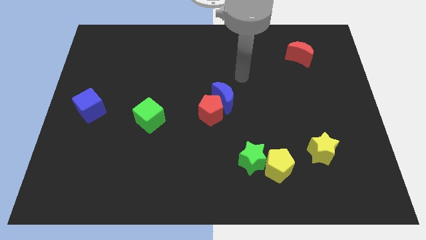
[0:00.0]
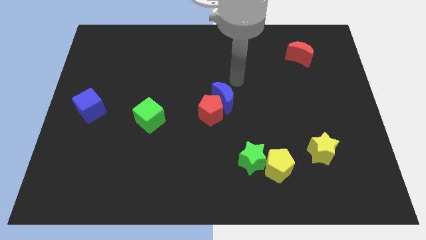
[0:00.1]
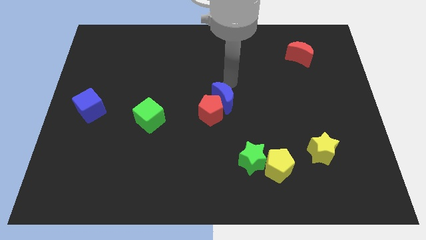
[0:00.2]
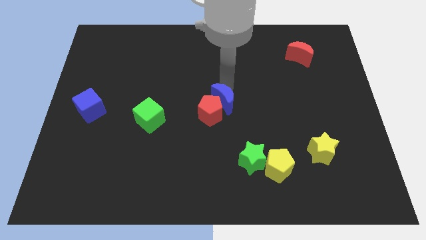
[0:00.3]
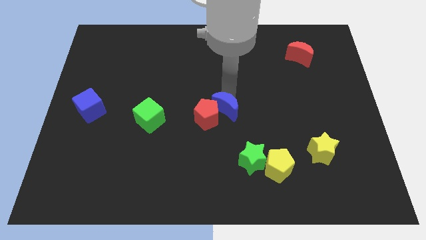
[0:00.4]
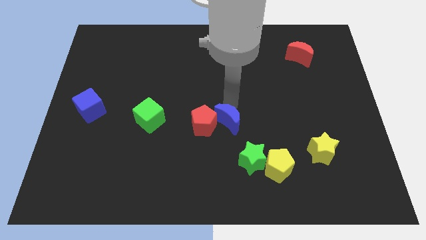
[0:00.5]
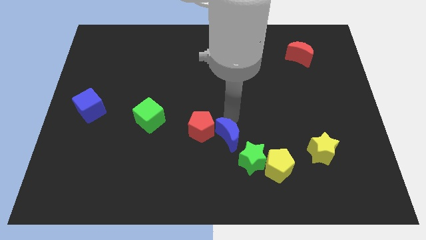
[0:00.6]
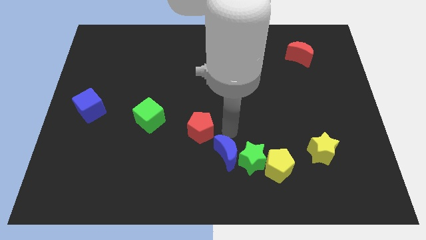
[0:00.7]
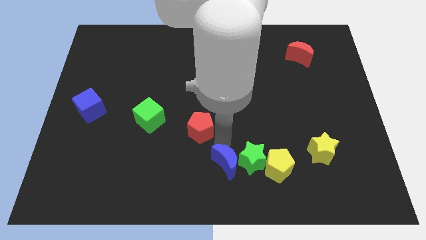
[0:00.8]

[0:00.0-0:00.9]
pull the red pentagon apart from the blue moon

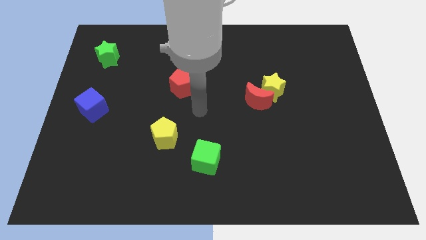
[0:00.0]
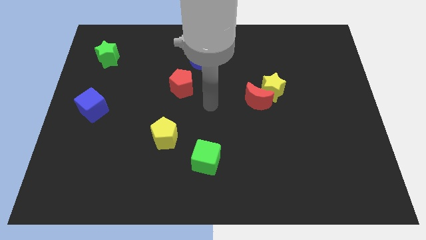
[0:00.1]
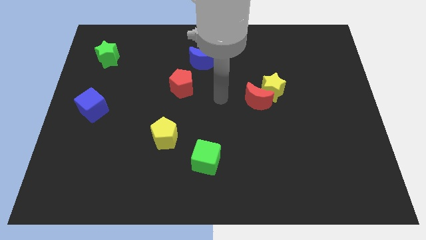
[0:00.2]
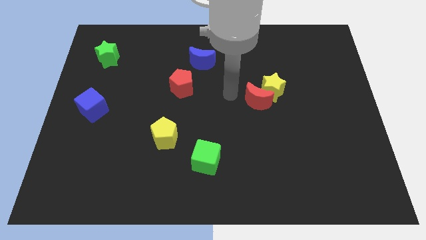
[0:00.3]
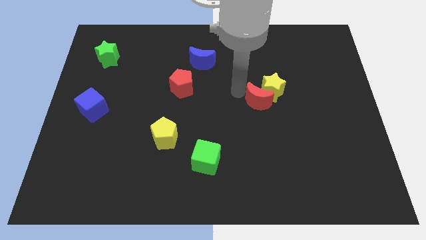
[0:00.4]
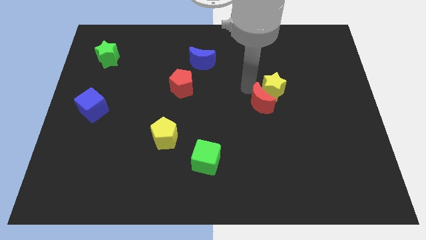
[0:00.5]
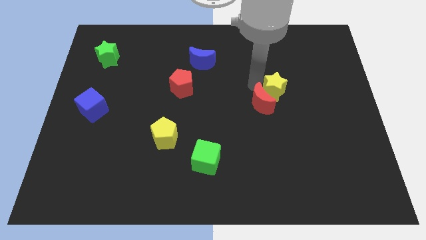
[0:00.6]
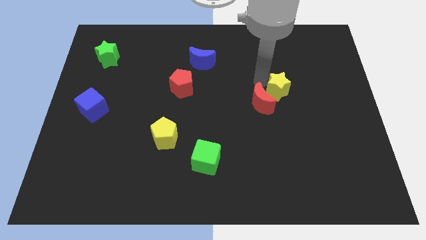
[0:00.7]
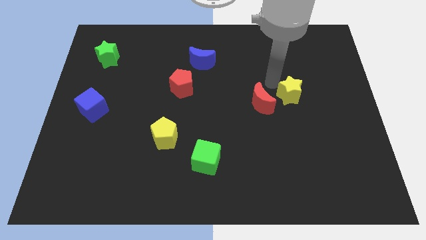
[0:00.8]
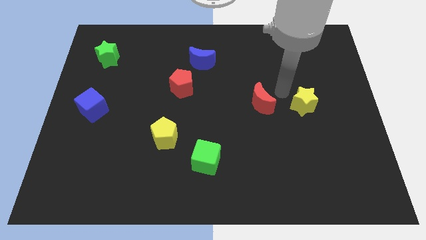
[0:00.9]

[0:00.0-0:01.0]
pull the red moon apart from the yellow star

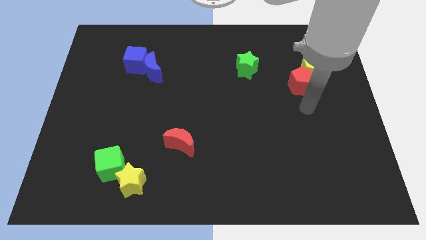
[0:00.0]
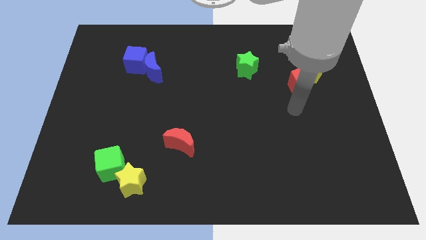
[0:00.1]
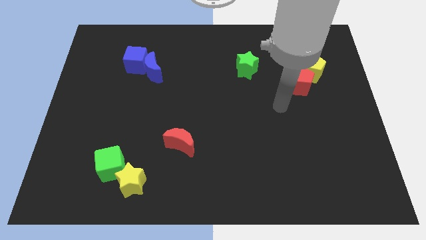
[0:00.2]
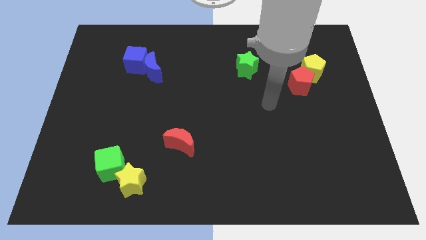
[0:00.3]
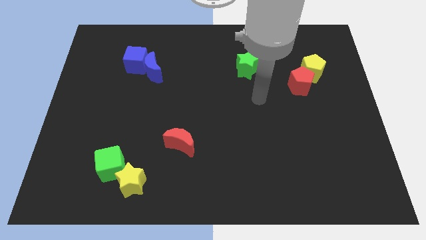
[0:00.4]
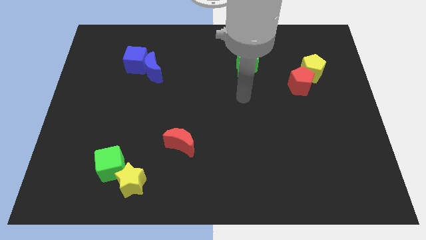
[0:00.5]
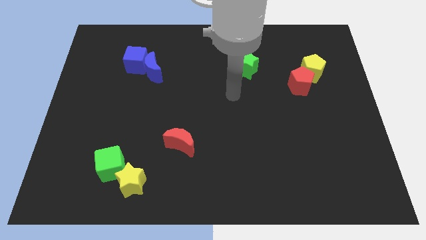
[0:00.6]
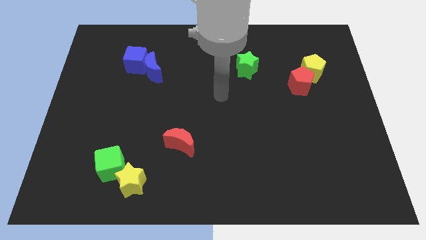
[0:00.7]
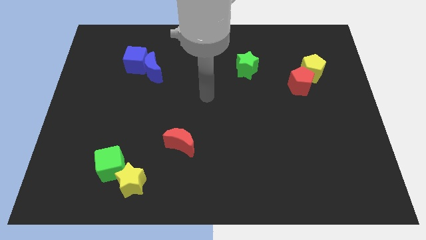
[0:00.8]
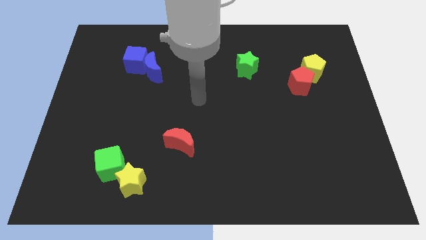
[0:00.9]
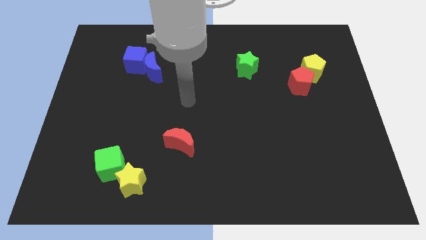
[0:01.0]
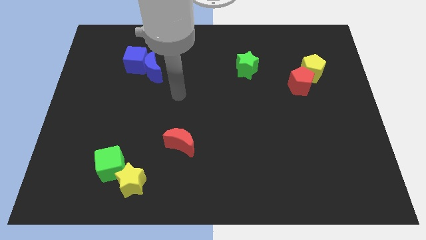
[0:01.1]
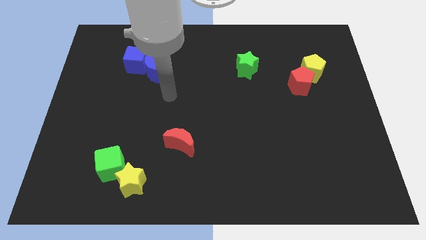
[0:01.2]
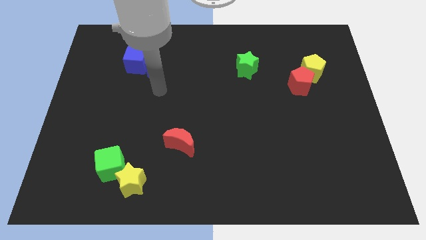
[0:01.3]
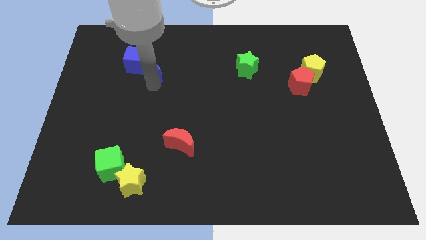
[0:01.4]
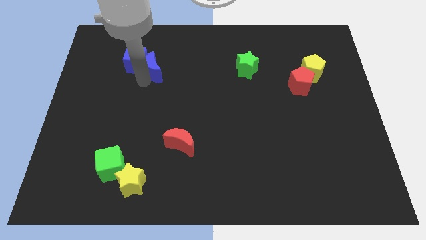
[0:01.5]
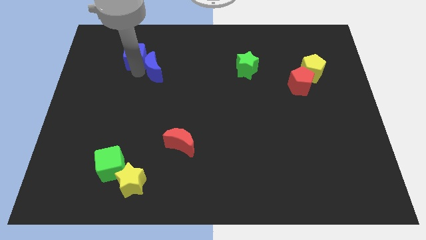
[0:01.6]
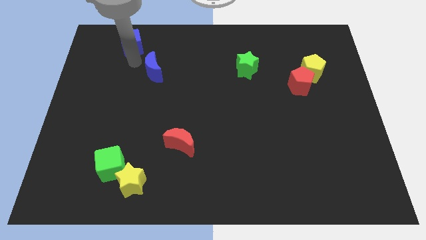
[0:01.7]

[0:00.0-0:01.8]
pull the blue moon apart from the blue cube

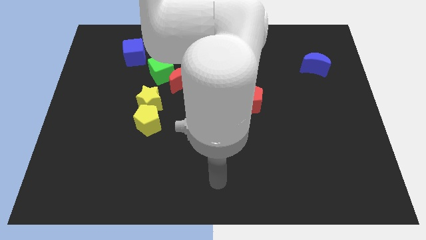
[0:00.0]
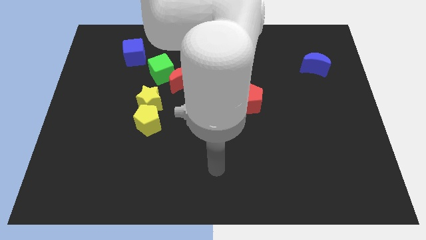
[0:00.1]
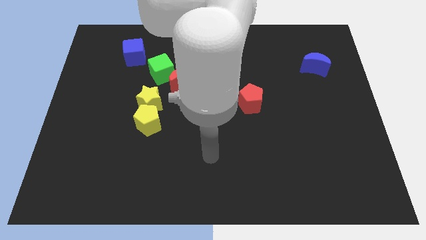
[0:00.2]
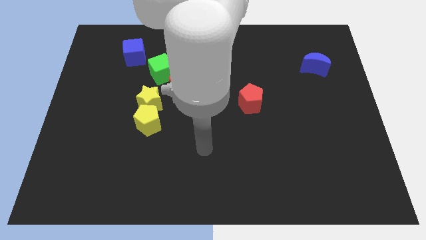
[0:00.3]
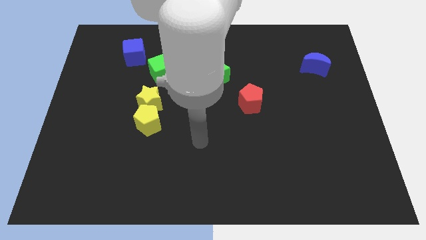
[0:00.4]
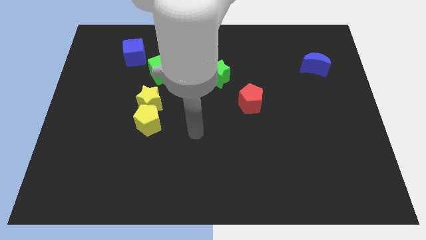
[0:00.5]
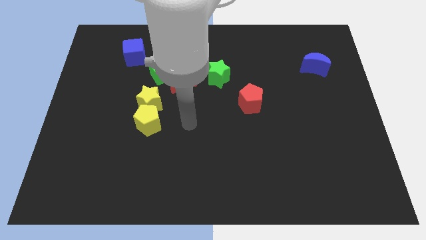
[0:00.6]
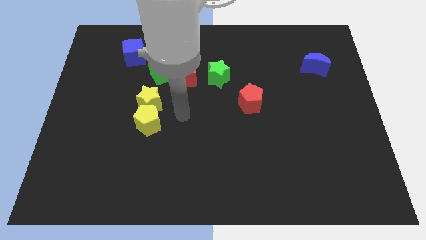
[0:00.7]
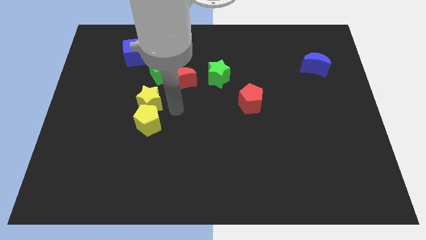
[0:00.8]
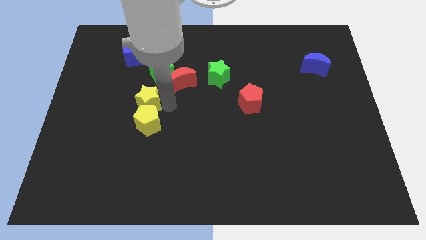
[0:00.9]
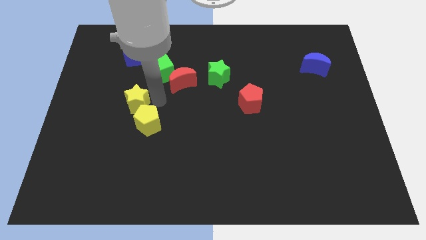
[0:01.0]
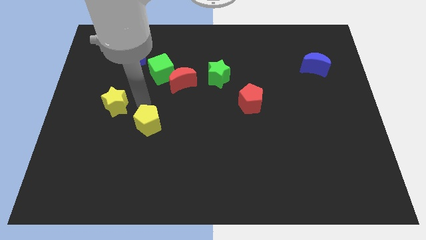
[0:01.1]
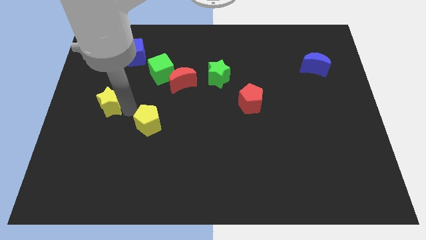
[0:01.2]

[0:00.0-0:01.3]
separate the yellow pentagon from the yellow star

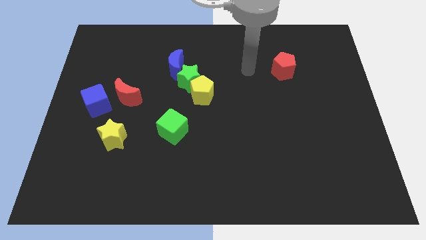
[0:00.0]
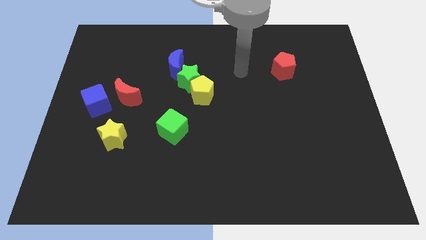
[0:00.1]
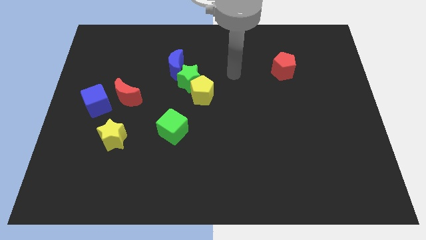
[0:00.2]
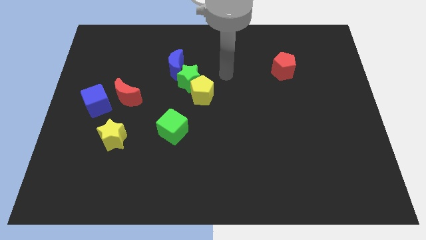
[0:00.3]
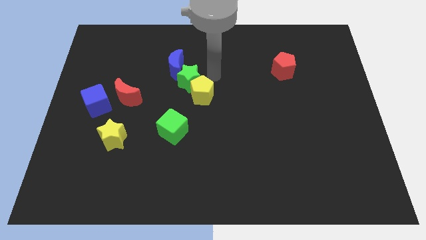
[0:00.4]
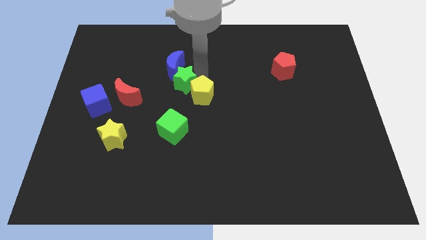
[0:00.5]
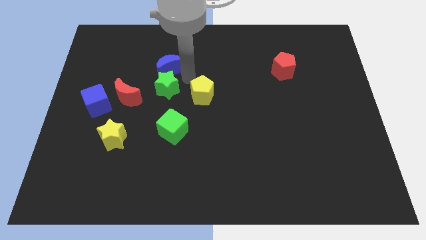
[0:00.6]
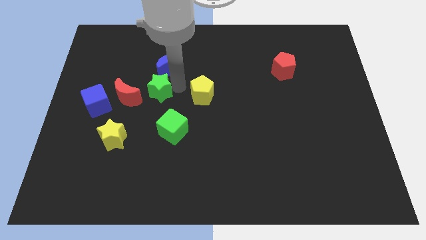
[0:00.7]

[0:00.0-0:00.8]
move the yellow pentagon away from the green star

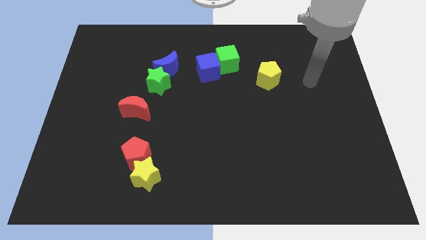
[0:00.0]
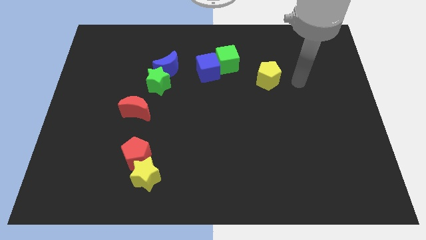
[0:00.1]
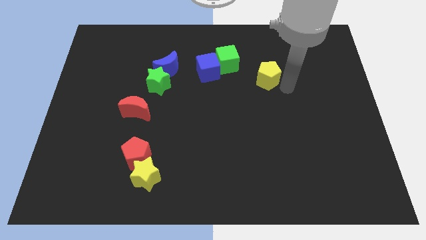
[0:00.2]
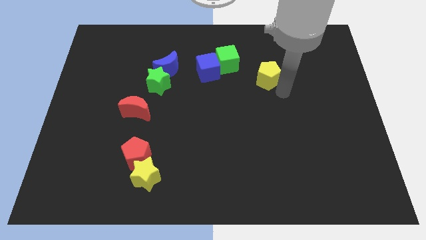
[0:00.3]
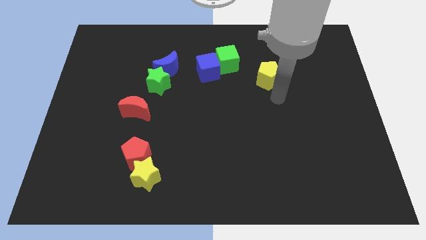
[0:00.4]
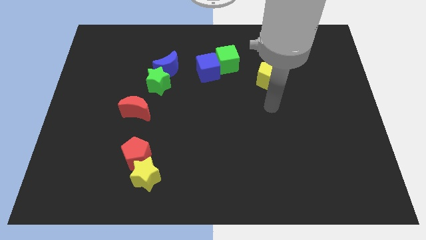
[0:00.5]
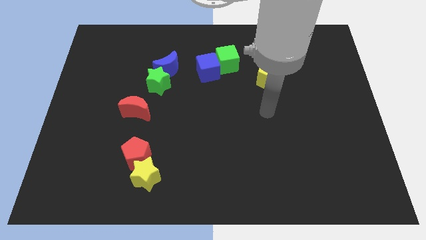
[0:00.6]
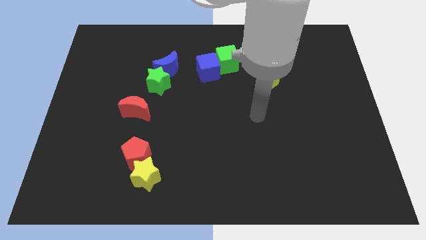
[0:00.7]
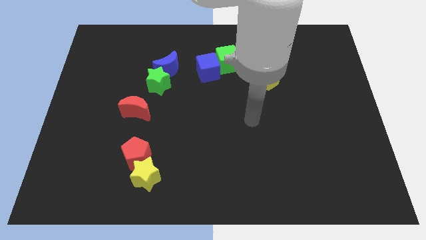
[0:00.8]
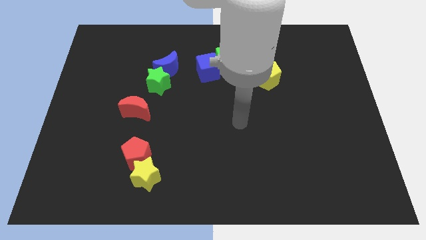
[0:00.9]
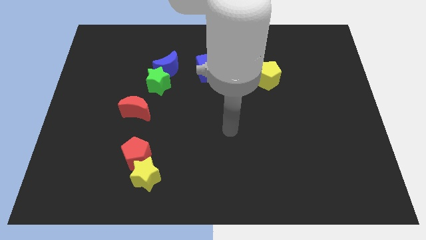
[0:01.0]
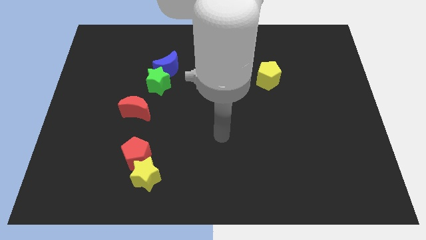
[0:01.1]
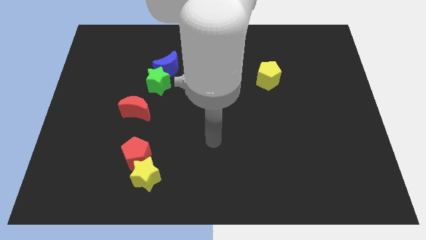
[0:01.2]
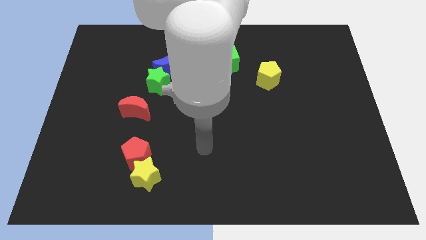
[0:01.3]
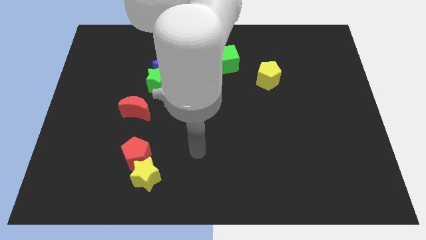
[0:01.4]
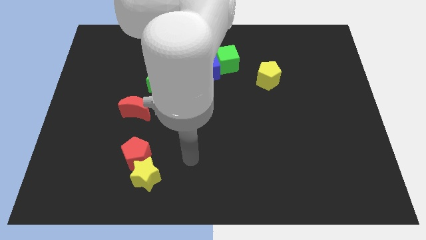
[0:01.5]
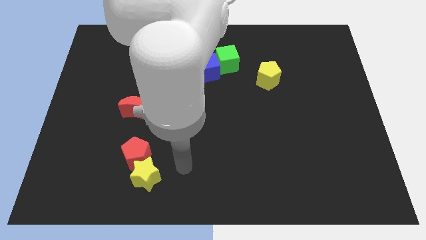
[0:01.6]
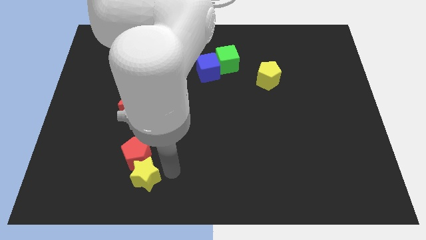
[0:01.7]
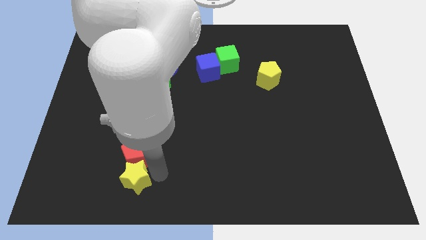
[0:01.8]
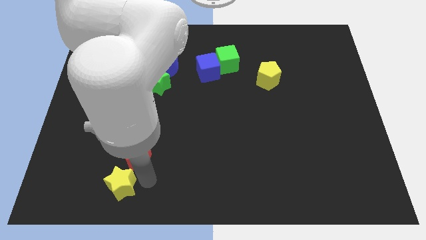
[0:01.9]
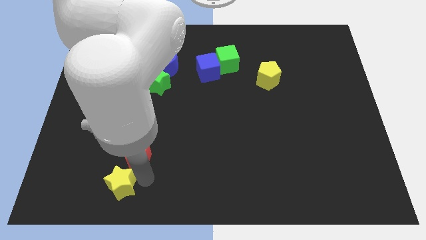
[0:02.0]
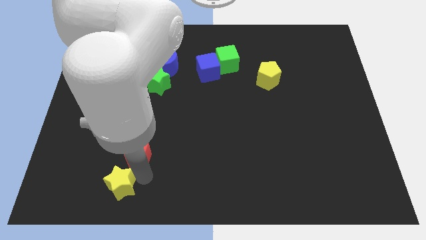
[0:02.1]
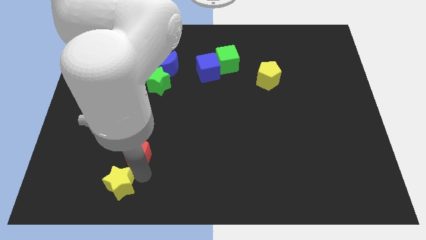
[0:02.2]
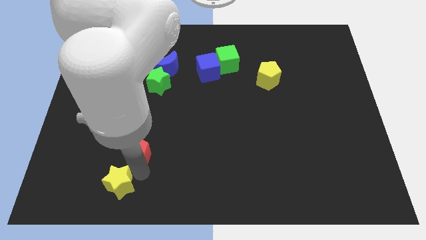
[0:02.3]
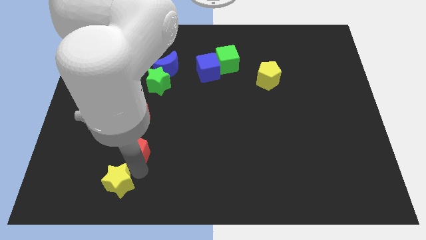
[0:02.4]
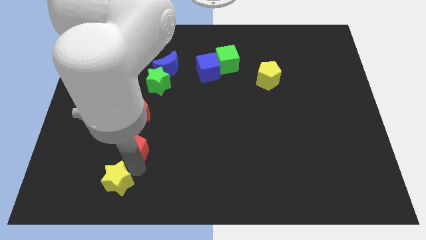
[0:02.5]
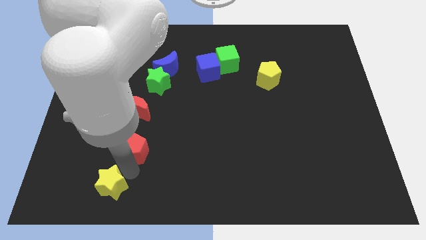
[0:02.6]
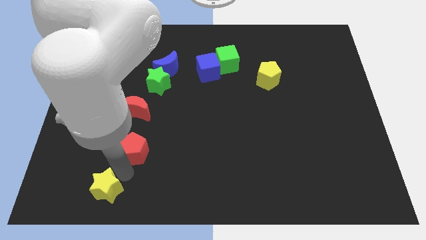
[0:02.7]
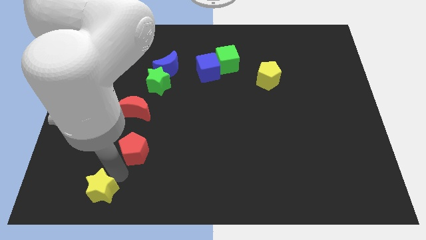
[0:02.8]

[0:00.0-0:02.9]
separate the red pentagon from the yellow star

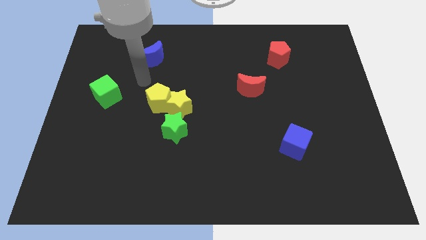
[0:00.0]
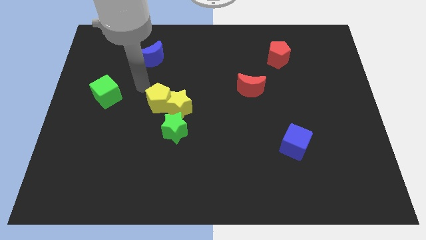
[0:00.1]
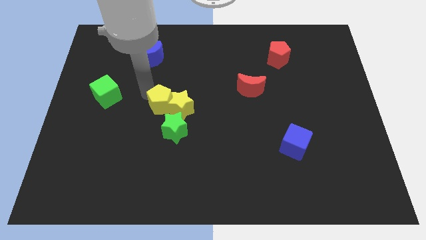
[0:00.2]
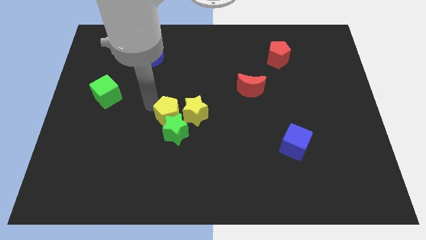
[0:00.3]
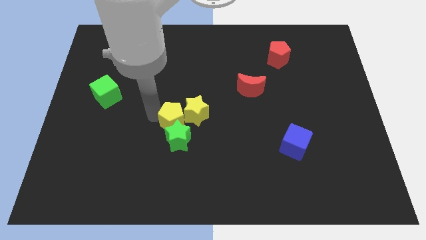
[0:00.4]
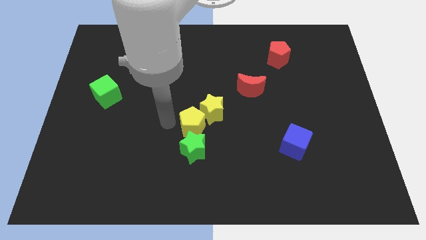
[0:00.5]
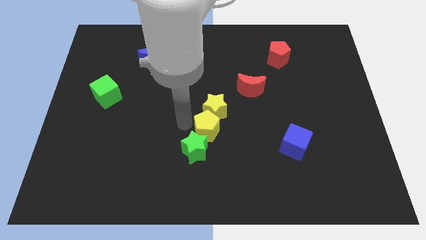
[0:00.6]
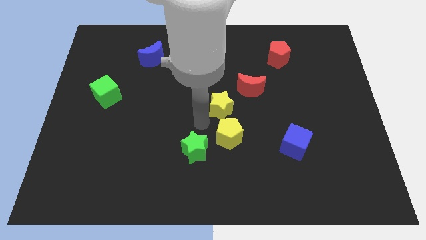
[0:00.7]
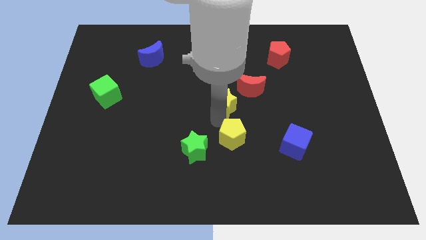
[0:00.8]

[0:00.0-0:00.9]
pull the yellow star apart from the yellow pentagon and green star
